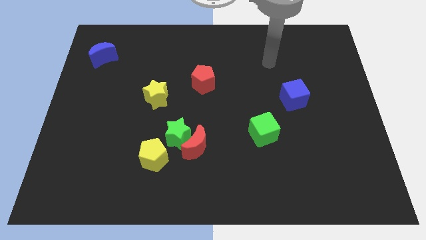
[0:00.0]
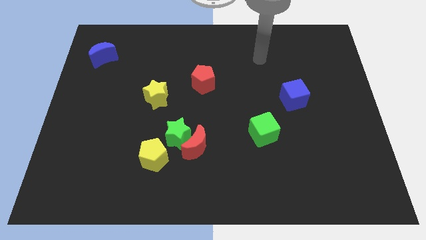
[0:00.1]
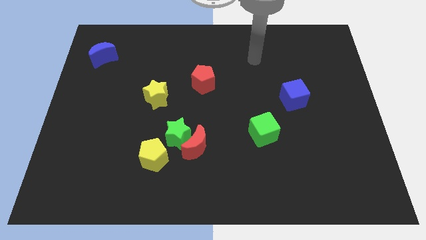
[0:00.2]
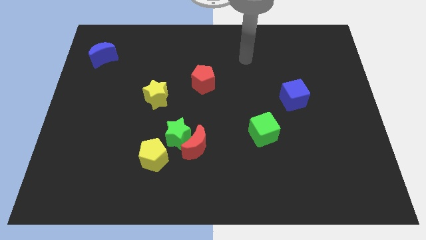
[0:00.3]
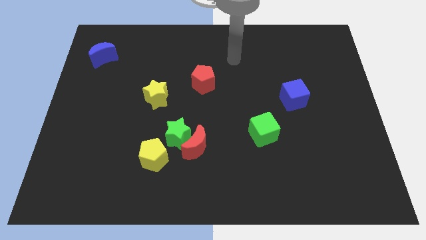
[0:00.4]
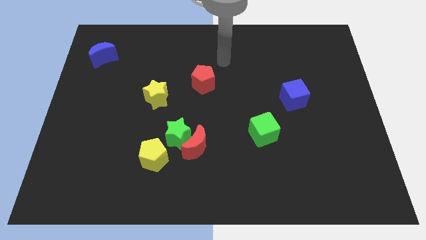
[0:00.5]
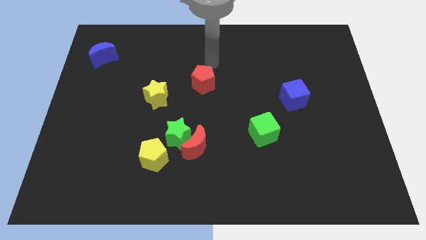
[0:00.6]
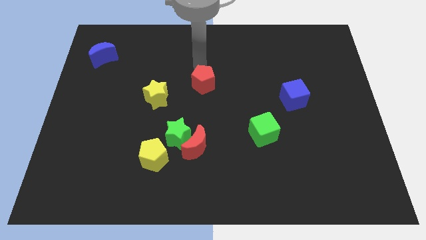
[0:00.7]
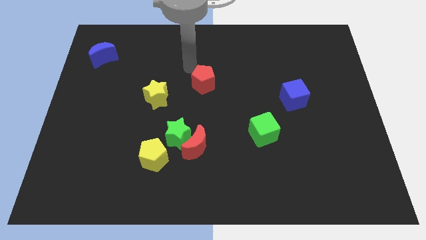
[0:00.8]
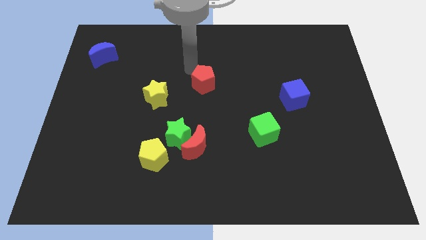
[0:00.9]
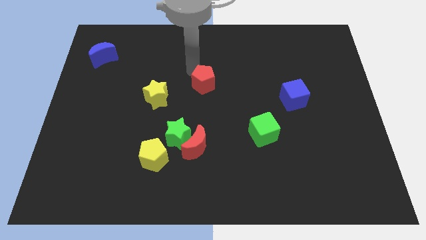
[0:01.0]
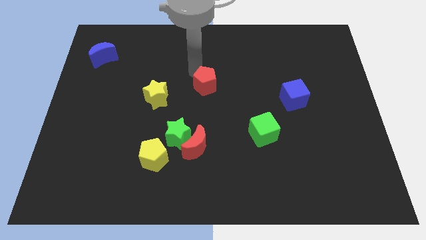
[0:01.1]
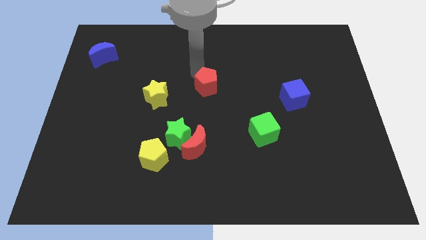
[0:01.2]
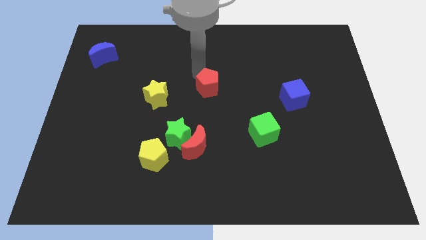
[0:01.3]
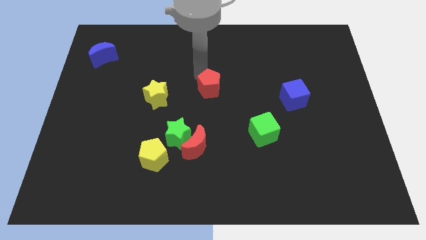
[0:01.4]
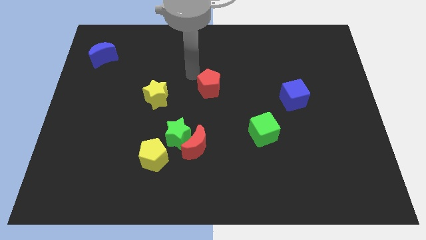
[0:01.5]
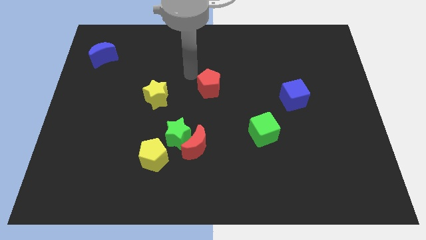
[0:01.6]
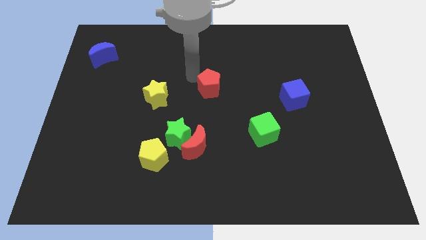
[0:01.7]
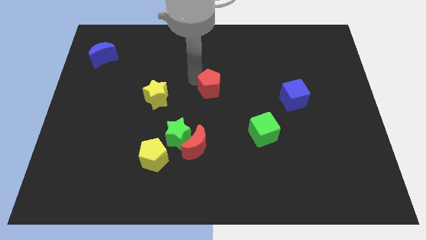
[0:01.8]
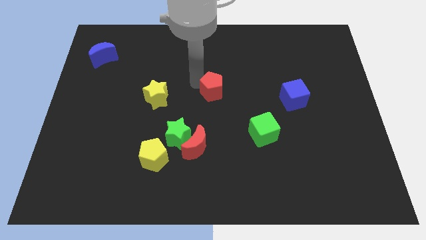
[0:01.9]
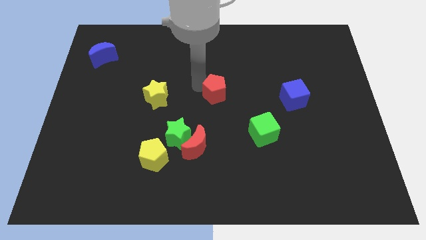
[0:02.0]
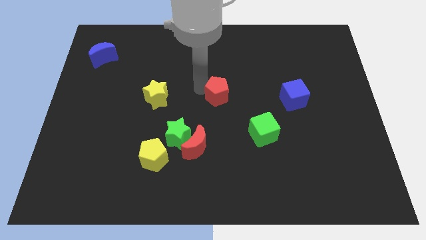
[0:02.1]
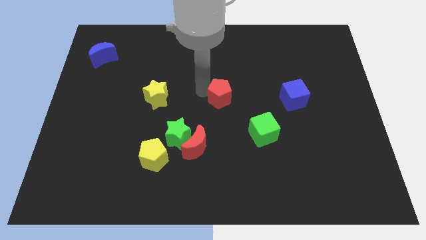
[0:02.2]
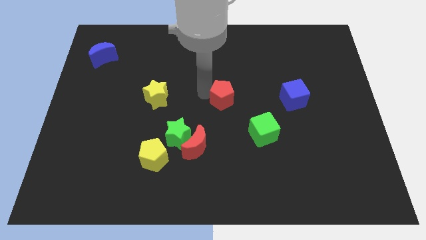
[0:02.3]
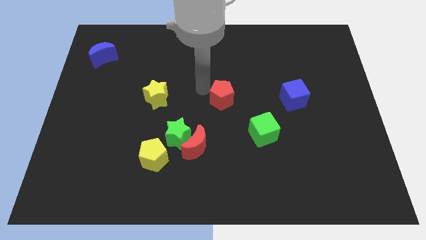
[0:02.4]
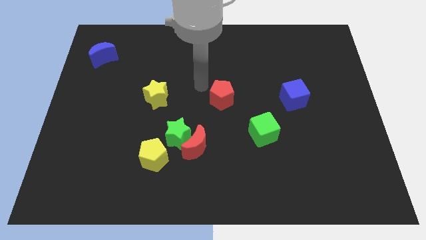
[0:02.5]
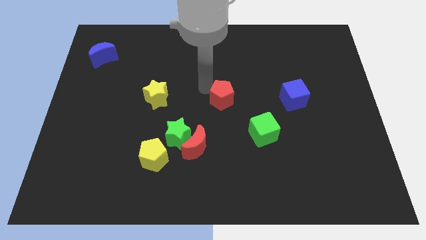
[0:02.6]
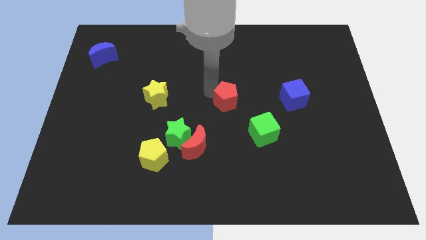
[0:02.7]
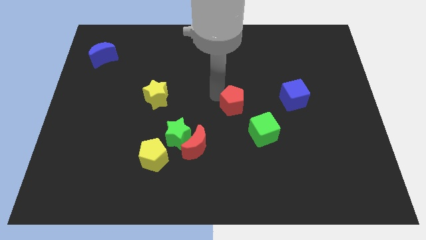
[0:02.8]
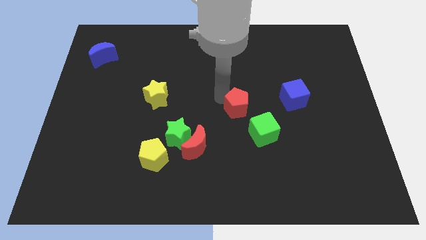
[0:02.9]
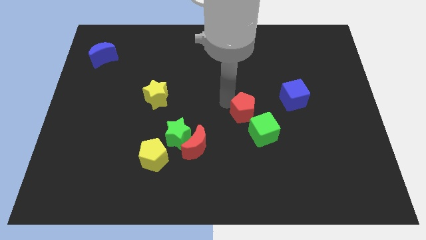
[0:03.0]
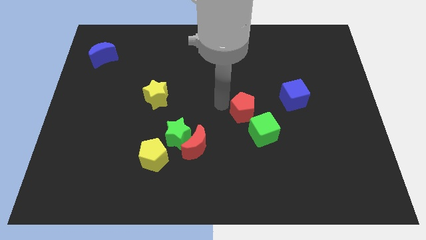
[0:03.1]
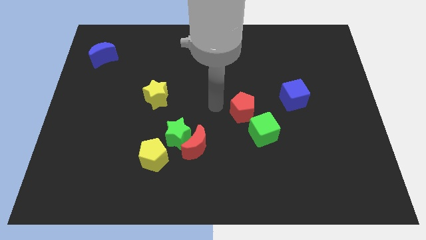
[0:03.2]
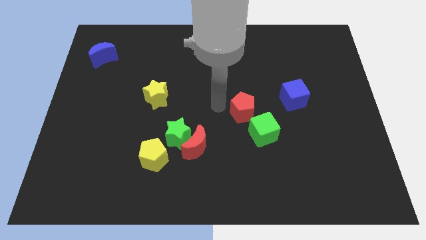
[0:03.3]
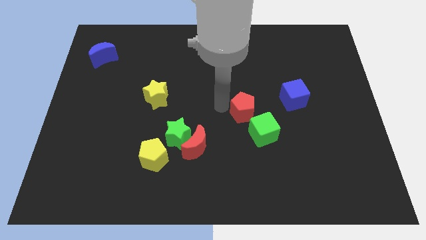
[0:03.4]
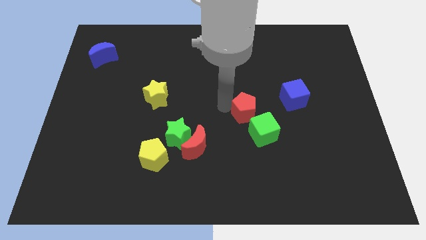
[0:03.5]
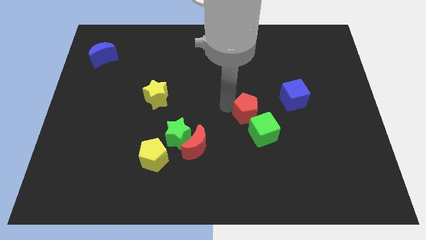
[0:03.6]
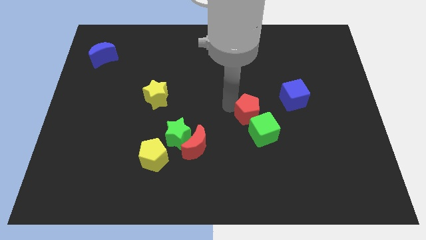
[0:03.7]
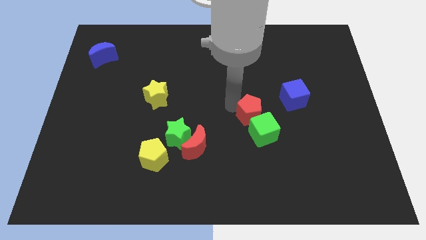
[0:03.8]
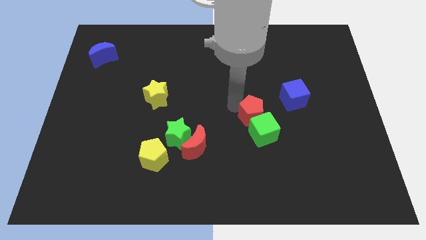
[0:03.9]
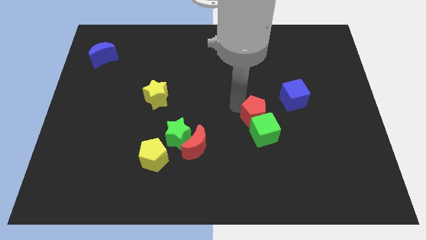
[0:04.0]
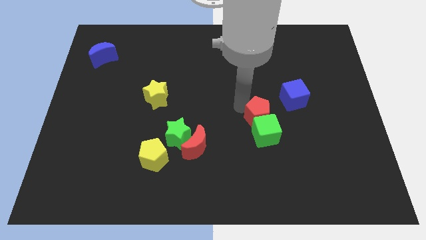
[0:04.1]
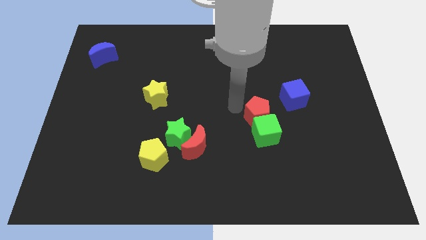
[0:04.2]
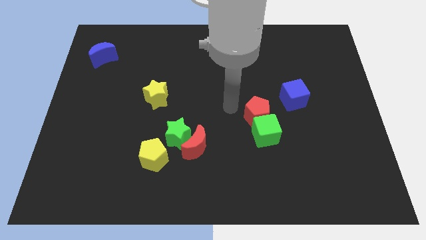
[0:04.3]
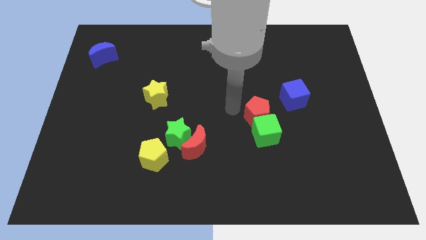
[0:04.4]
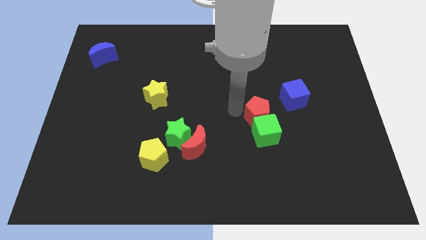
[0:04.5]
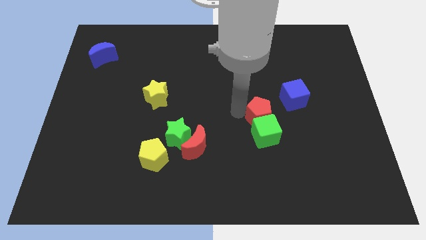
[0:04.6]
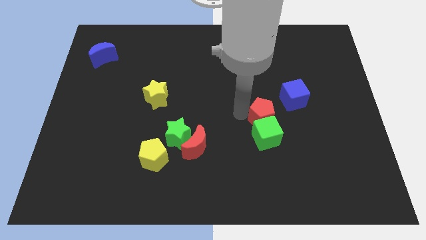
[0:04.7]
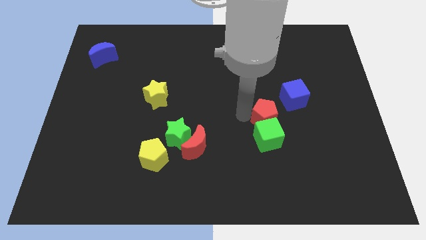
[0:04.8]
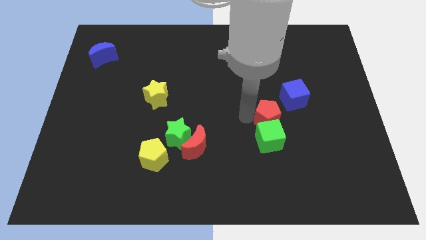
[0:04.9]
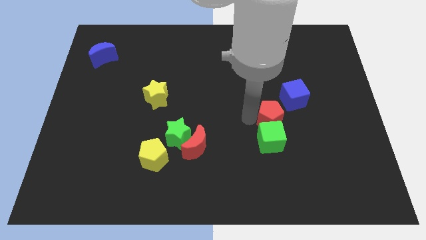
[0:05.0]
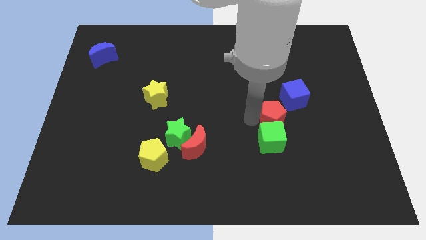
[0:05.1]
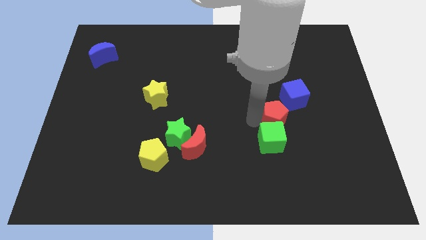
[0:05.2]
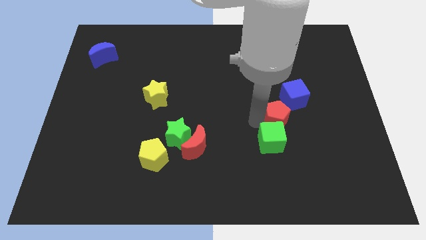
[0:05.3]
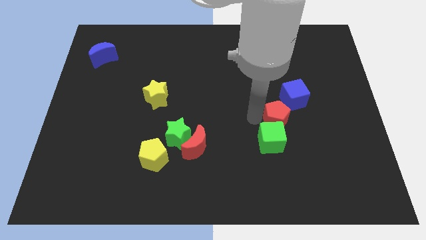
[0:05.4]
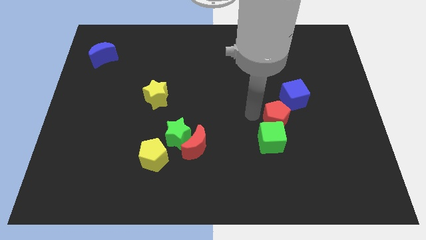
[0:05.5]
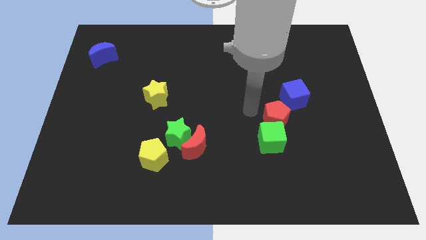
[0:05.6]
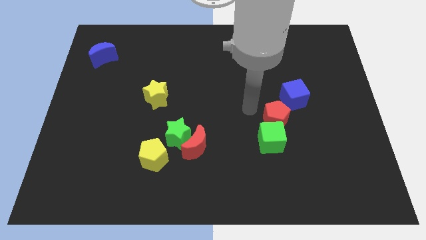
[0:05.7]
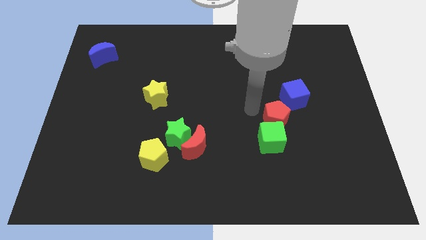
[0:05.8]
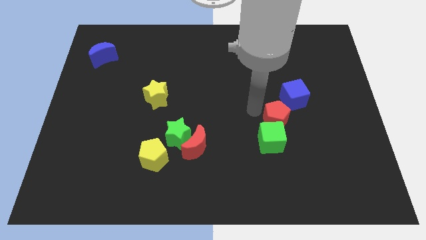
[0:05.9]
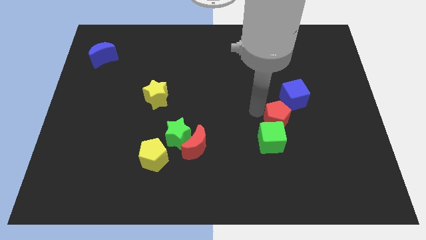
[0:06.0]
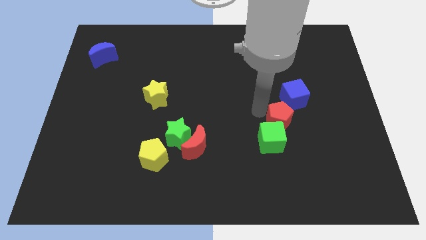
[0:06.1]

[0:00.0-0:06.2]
slide the red pentagon down and right

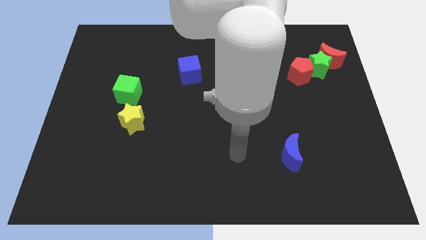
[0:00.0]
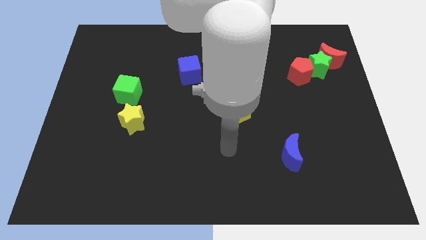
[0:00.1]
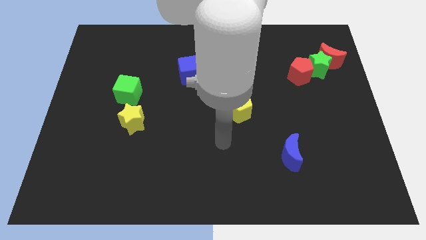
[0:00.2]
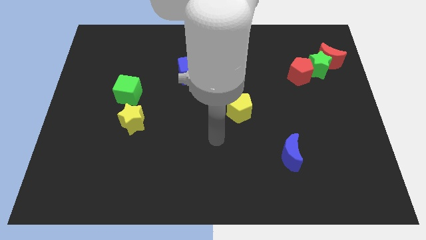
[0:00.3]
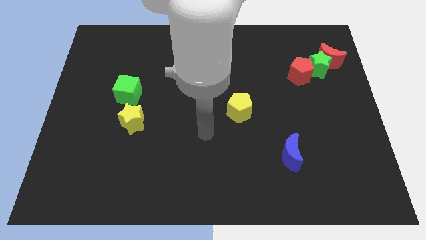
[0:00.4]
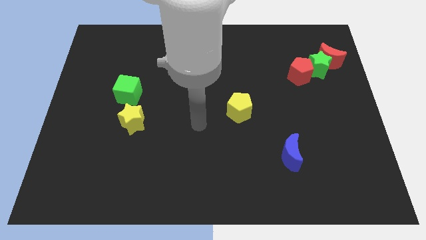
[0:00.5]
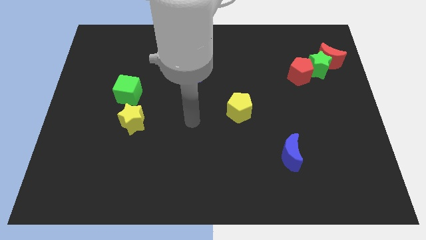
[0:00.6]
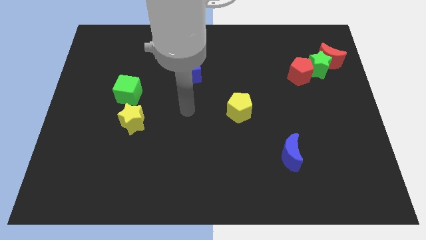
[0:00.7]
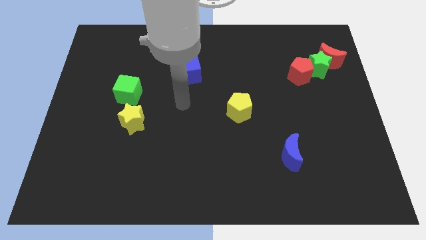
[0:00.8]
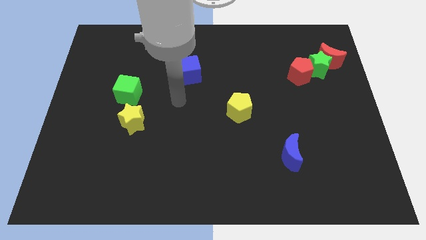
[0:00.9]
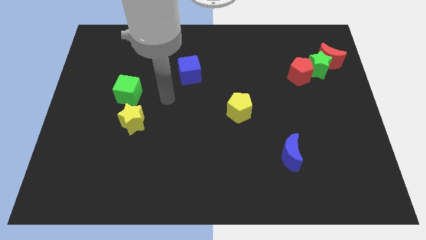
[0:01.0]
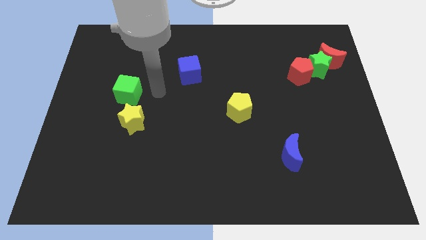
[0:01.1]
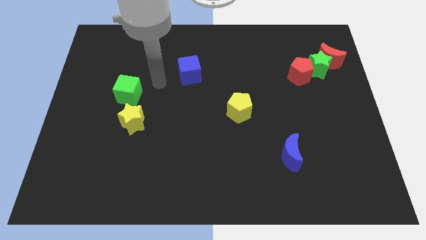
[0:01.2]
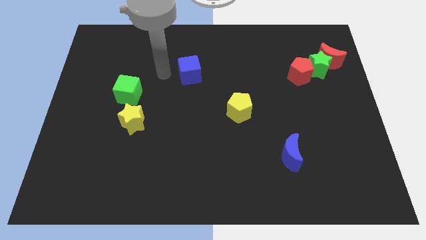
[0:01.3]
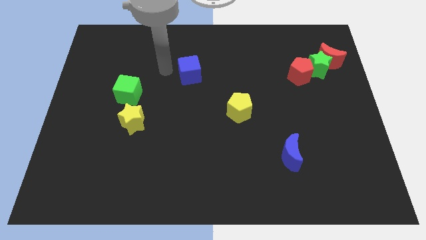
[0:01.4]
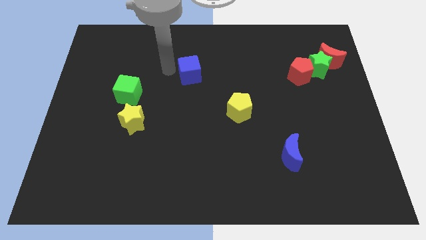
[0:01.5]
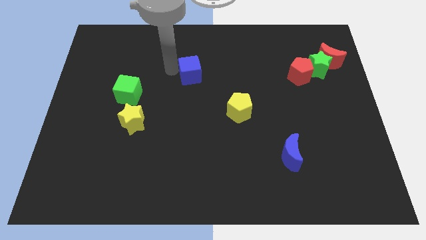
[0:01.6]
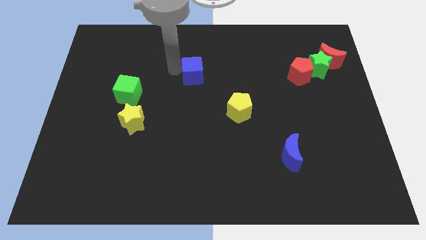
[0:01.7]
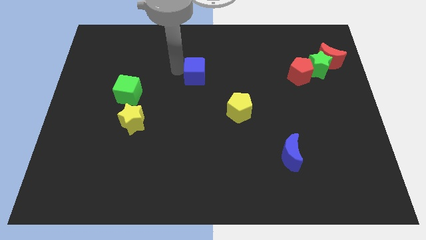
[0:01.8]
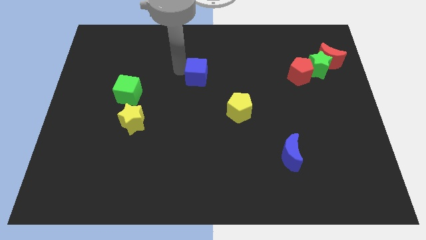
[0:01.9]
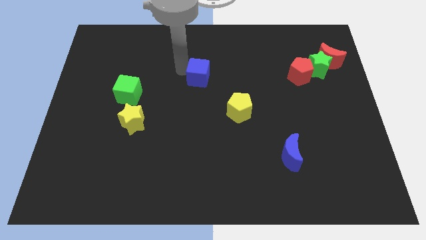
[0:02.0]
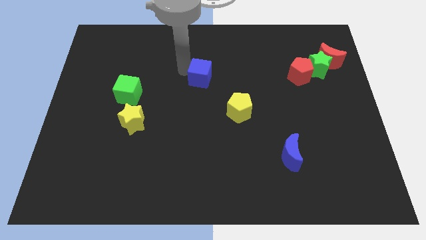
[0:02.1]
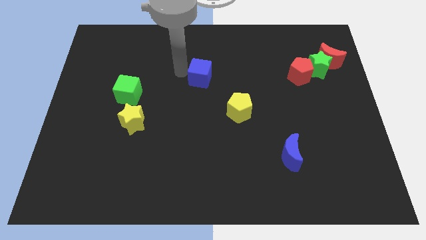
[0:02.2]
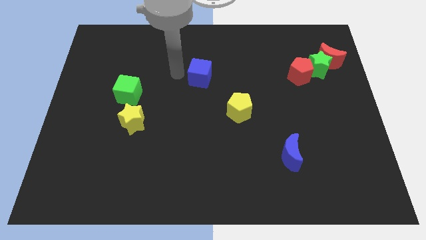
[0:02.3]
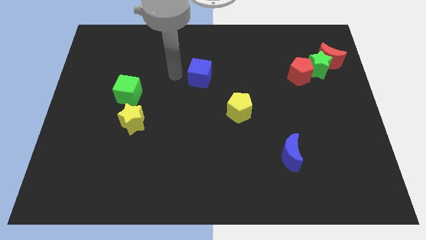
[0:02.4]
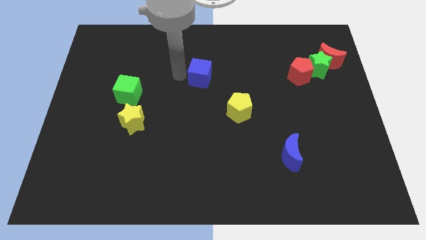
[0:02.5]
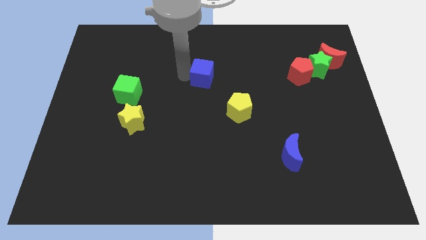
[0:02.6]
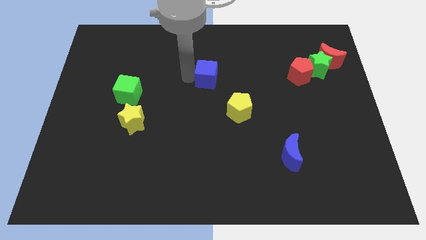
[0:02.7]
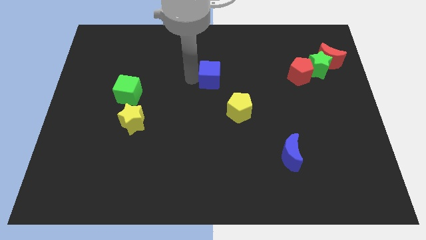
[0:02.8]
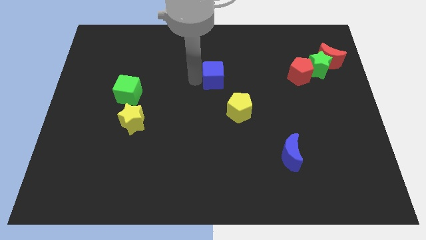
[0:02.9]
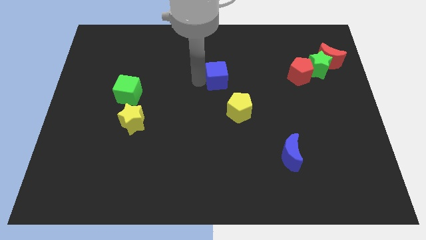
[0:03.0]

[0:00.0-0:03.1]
slide the blue cube to the right a little bit
